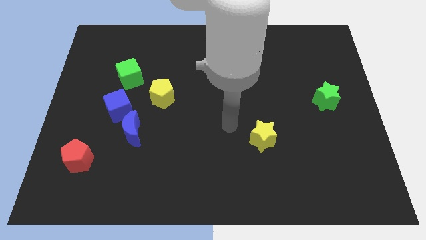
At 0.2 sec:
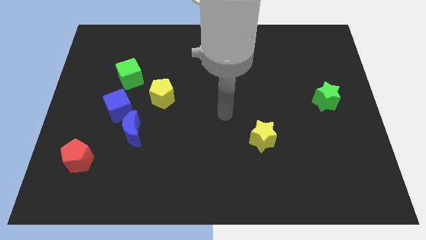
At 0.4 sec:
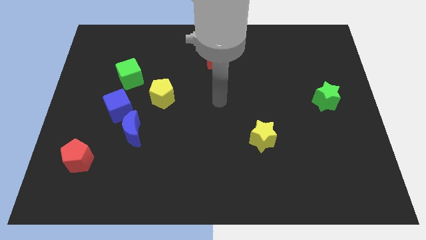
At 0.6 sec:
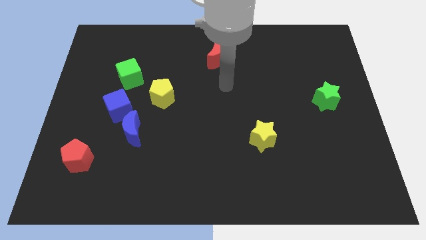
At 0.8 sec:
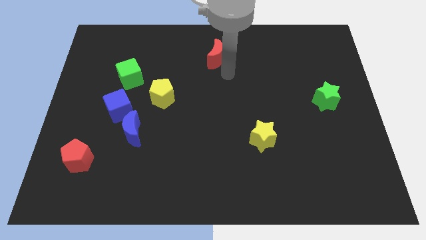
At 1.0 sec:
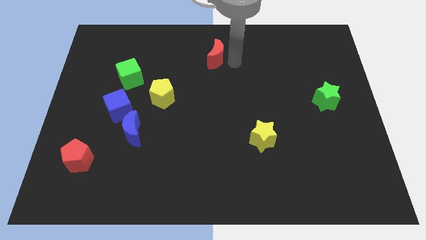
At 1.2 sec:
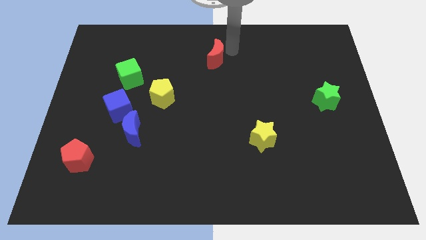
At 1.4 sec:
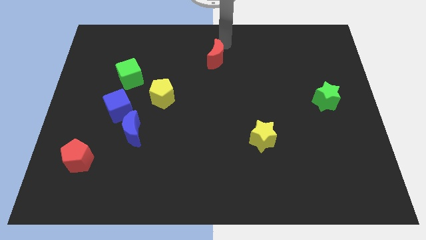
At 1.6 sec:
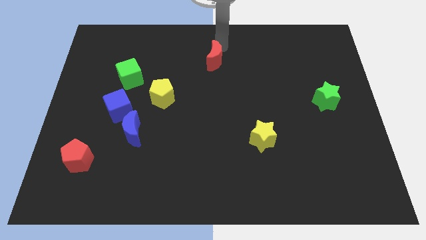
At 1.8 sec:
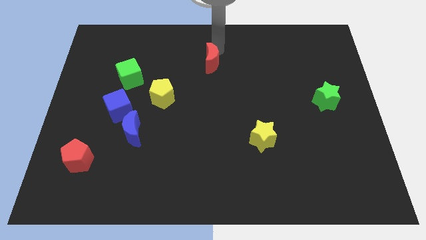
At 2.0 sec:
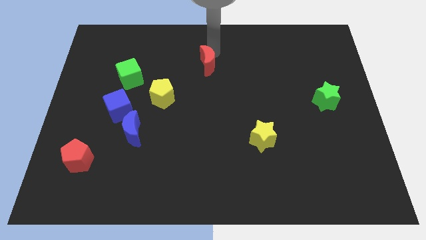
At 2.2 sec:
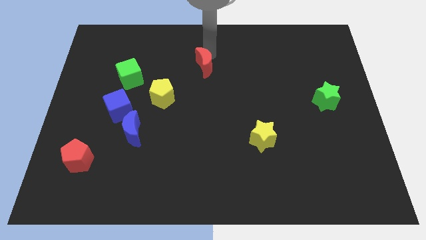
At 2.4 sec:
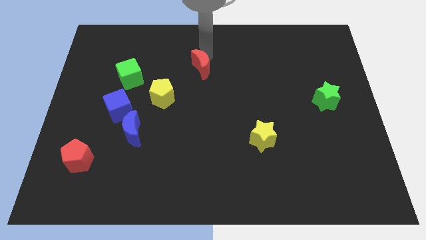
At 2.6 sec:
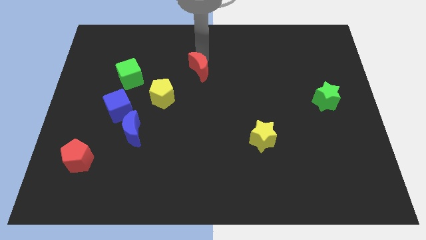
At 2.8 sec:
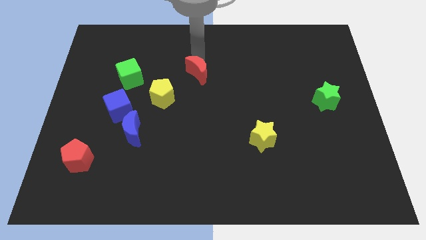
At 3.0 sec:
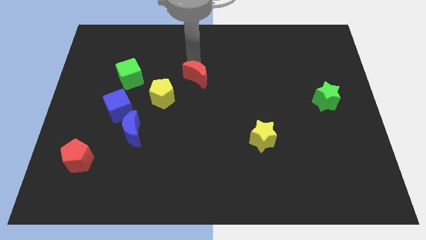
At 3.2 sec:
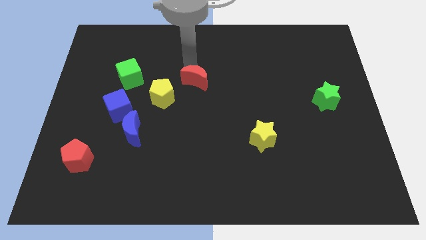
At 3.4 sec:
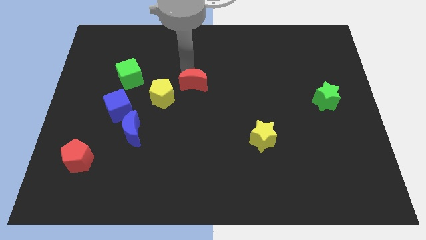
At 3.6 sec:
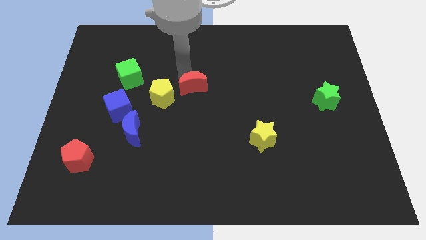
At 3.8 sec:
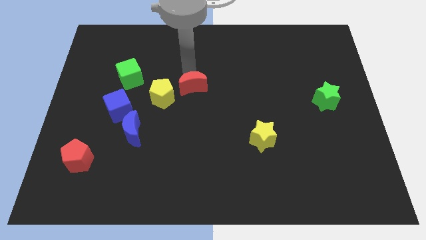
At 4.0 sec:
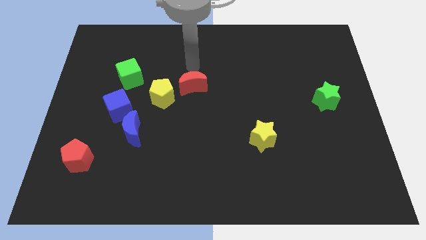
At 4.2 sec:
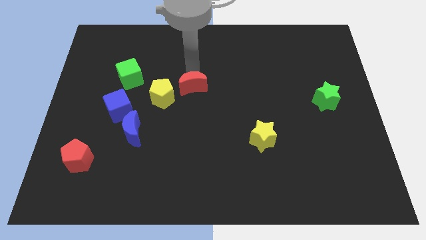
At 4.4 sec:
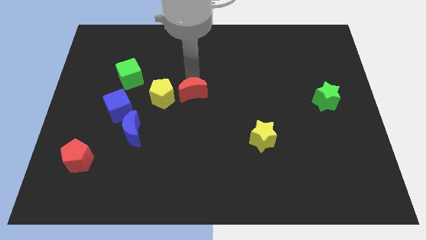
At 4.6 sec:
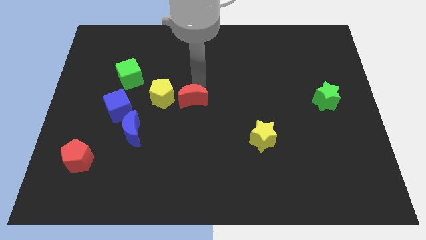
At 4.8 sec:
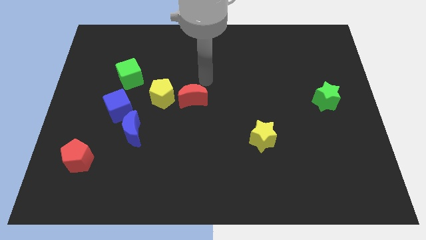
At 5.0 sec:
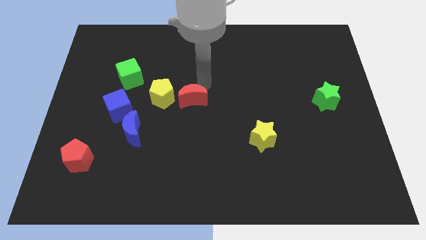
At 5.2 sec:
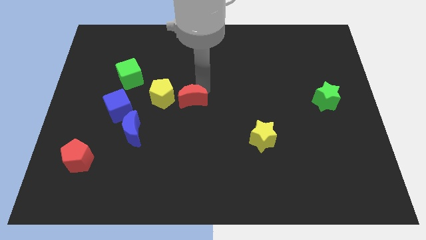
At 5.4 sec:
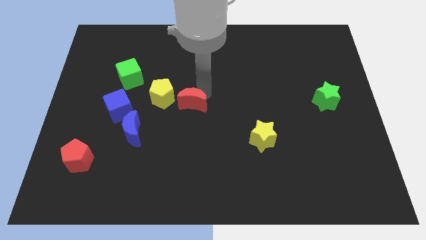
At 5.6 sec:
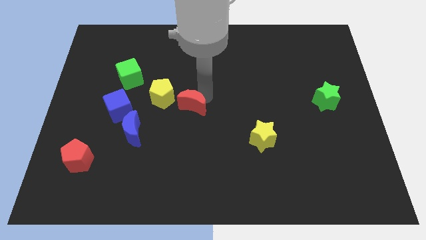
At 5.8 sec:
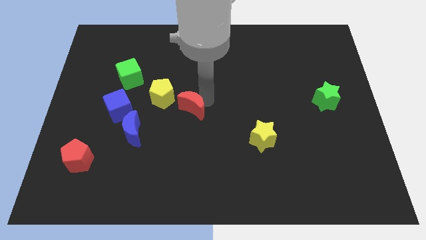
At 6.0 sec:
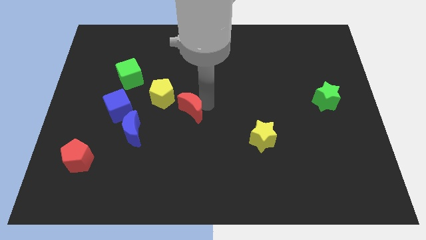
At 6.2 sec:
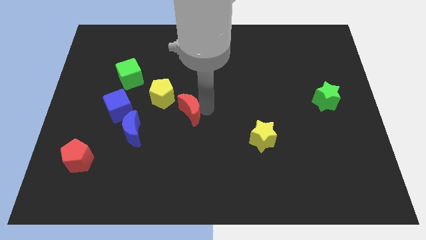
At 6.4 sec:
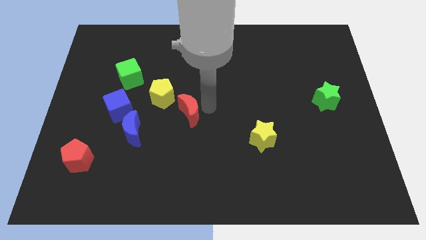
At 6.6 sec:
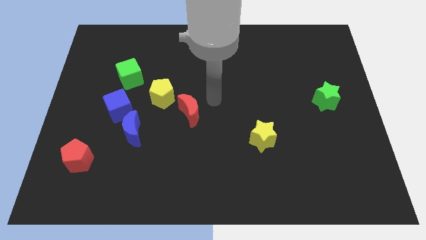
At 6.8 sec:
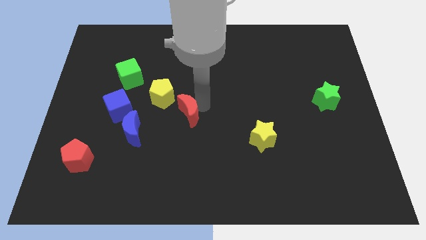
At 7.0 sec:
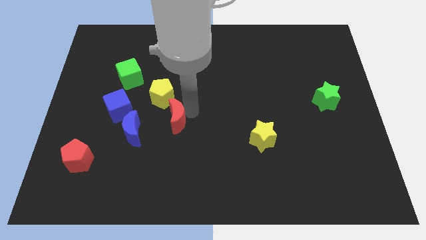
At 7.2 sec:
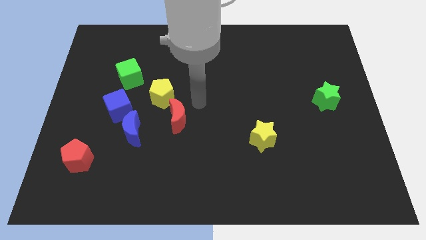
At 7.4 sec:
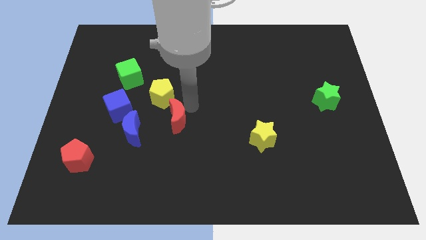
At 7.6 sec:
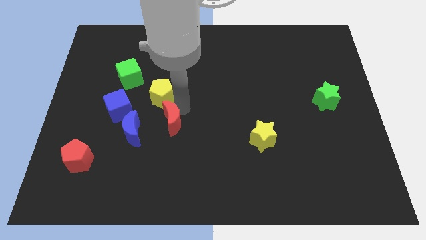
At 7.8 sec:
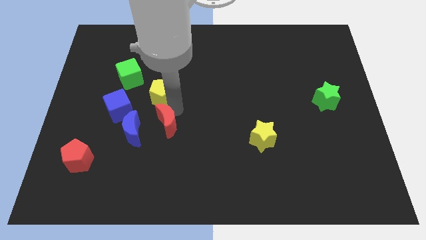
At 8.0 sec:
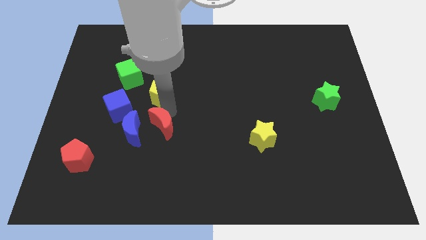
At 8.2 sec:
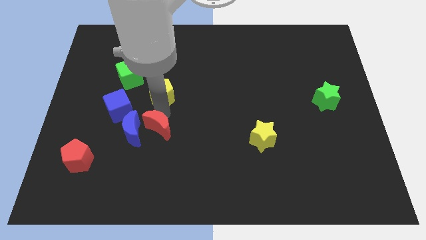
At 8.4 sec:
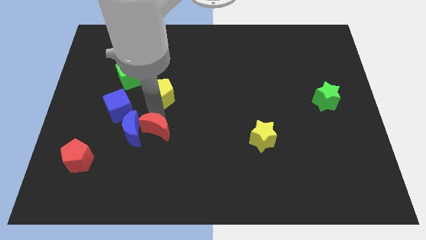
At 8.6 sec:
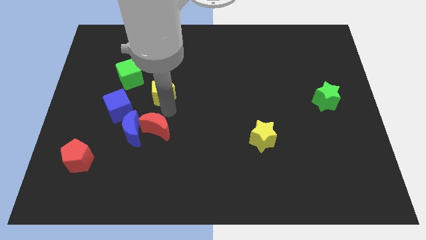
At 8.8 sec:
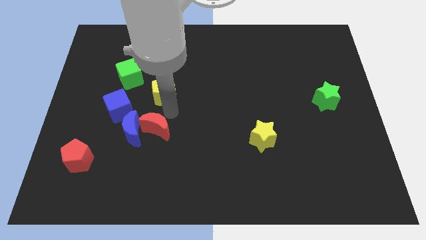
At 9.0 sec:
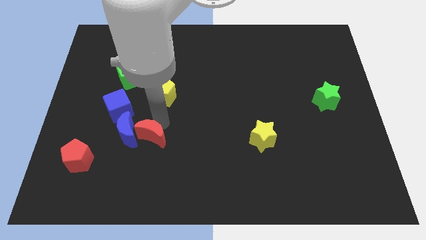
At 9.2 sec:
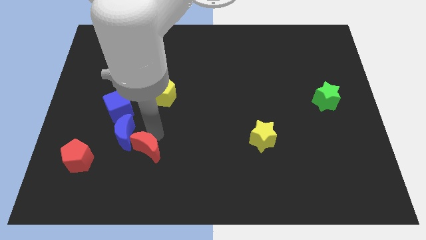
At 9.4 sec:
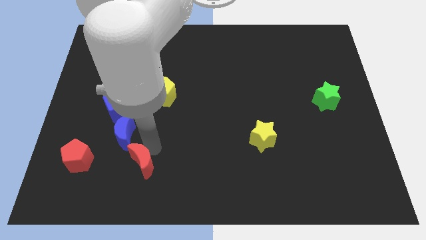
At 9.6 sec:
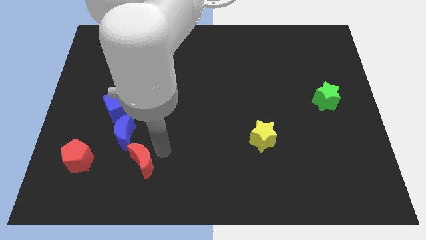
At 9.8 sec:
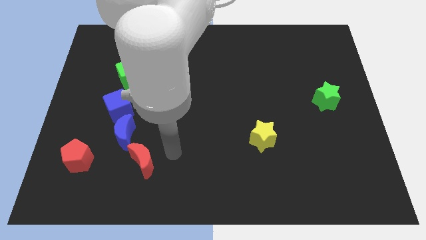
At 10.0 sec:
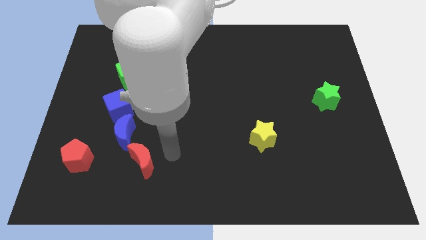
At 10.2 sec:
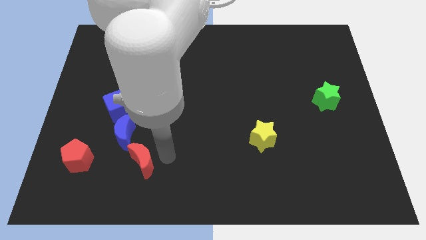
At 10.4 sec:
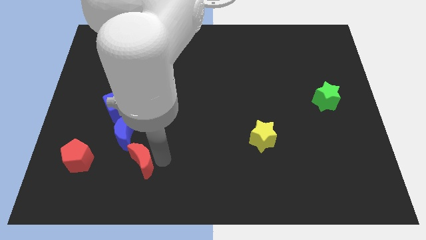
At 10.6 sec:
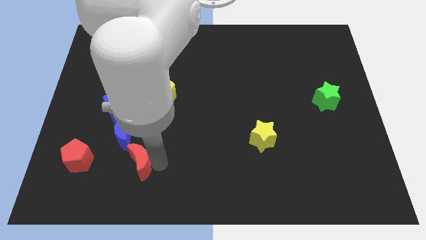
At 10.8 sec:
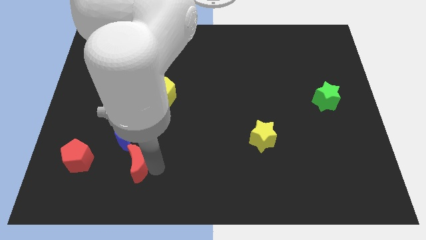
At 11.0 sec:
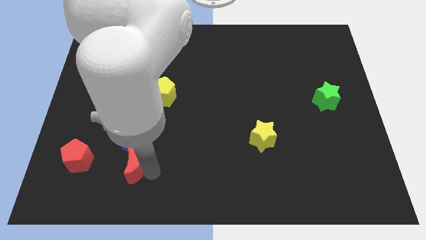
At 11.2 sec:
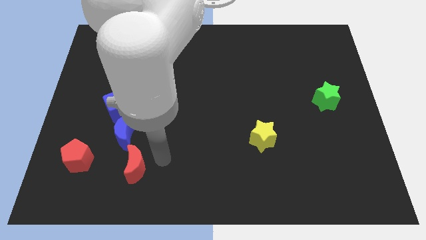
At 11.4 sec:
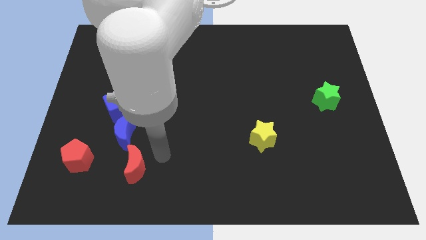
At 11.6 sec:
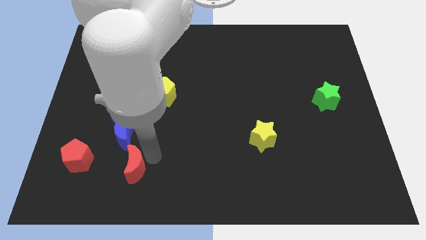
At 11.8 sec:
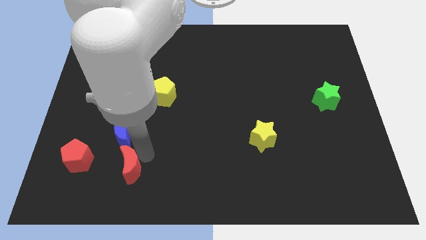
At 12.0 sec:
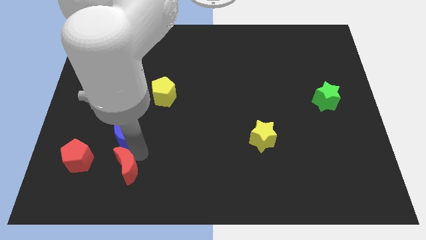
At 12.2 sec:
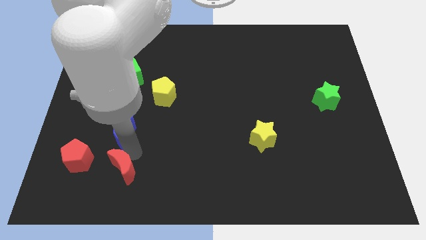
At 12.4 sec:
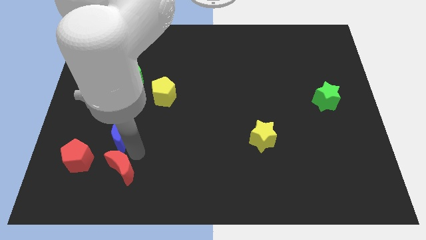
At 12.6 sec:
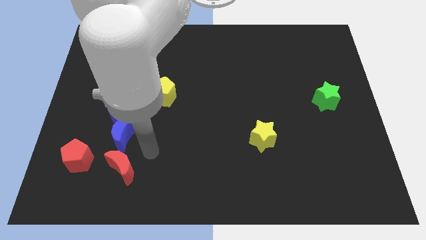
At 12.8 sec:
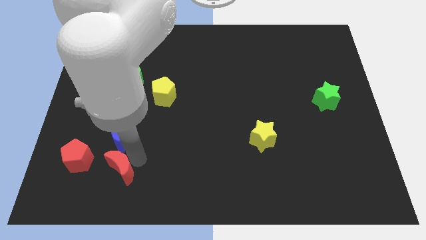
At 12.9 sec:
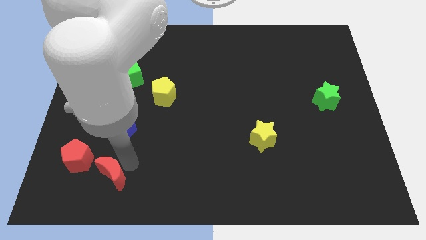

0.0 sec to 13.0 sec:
put the red moon to the bottom right of the red pentagon
